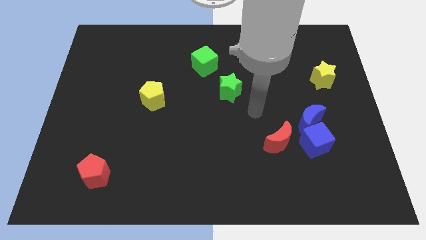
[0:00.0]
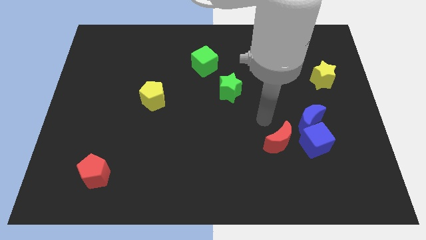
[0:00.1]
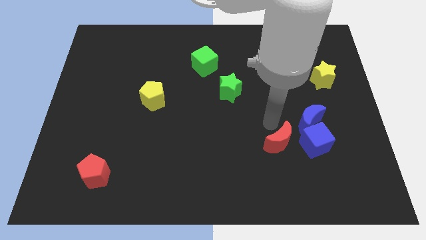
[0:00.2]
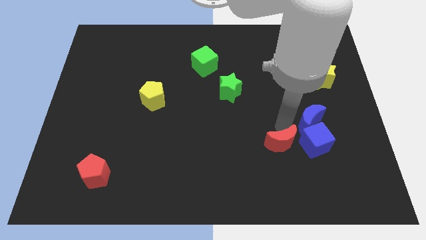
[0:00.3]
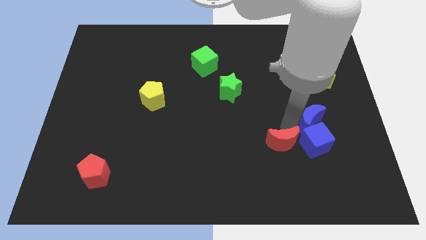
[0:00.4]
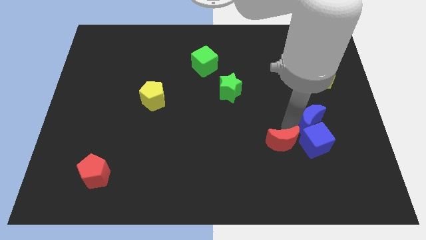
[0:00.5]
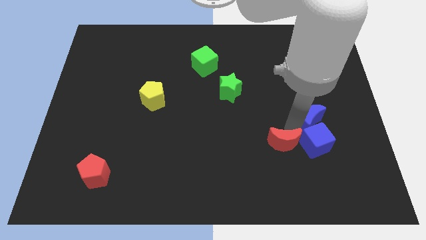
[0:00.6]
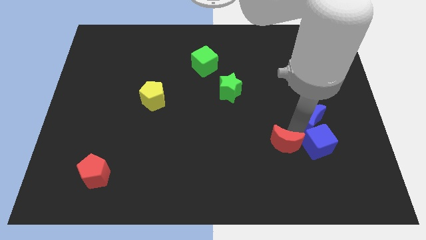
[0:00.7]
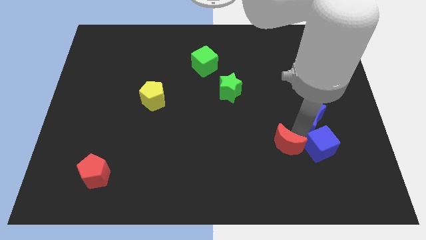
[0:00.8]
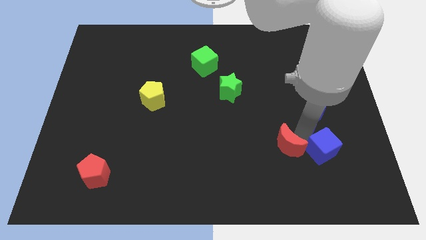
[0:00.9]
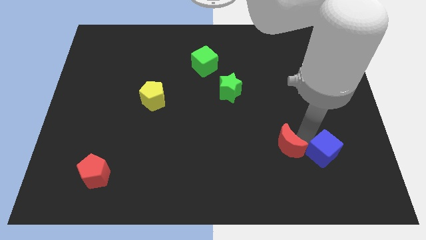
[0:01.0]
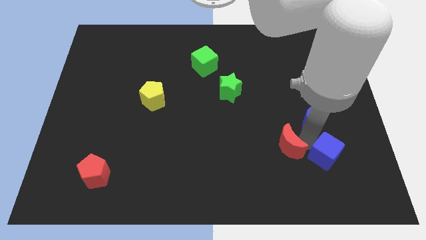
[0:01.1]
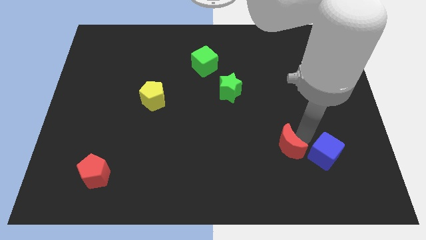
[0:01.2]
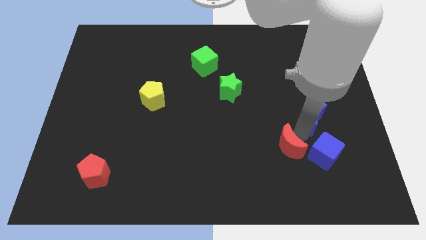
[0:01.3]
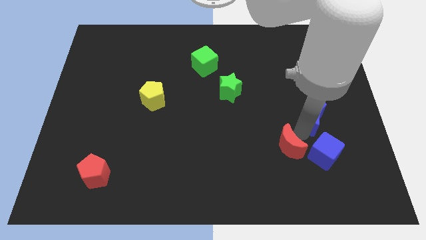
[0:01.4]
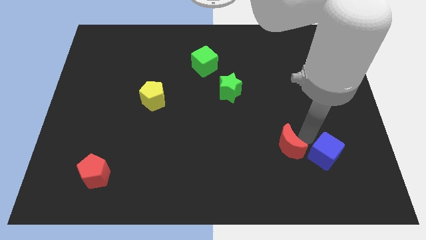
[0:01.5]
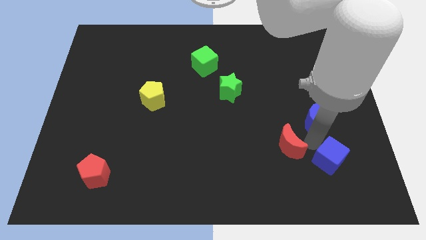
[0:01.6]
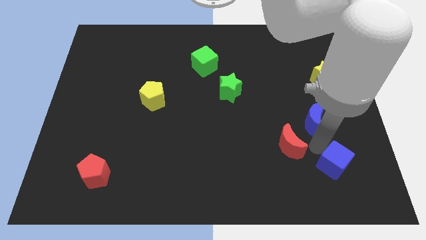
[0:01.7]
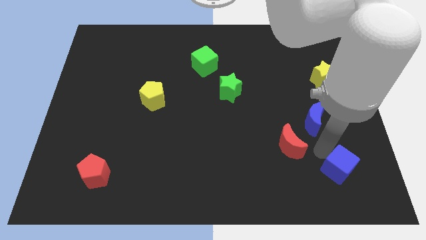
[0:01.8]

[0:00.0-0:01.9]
move the blue cube away from the blue moon and red moon

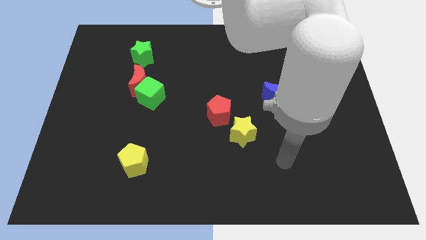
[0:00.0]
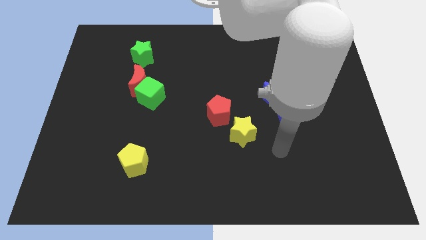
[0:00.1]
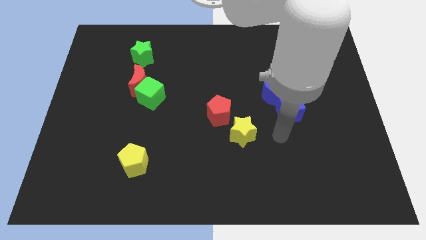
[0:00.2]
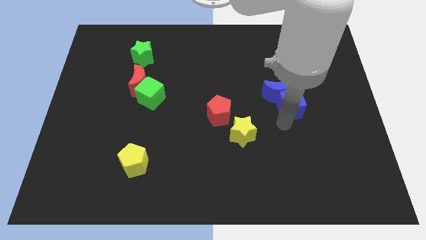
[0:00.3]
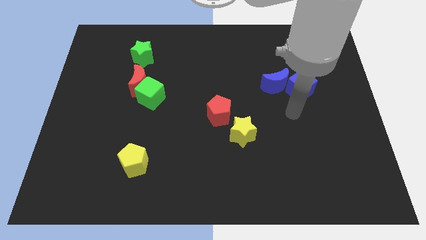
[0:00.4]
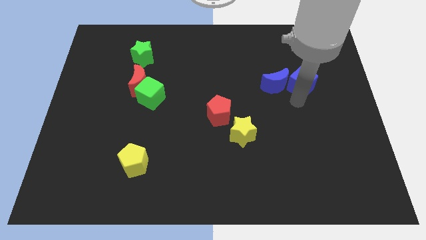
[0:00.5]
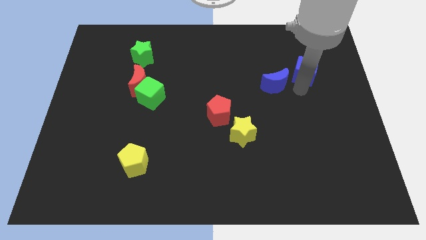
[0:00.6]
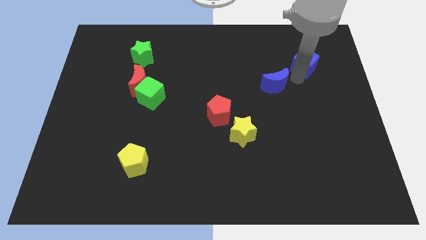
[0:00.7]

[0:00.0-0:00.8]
pull the blue moon apart from the blue cube

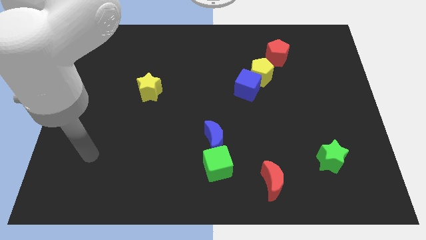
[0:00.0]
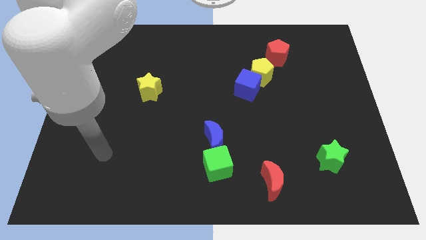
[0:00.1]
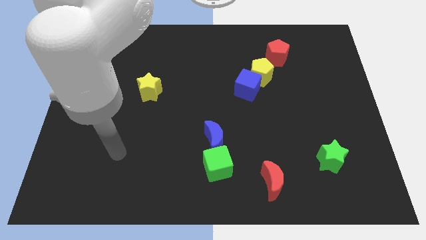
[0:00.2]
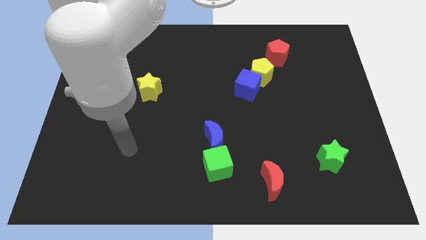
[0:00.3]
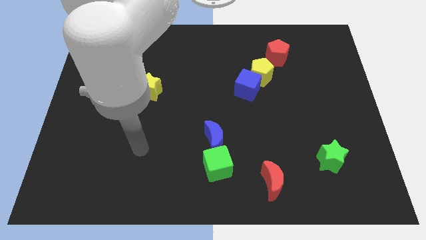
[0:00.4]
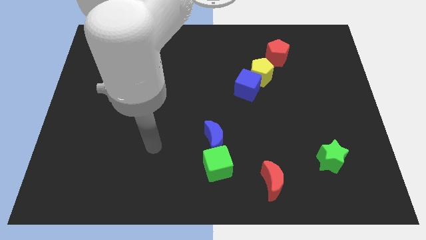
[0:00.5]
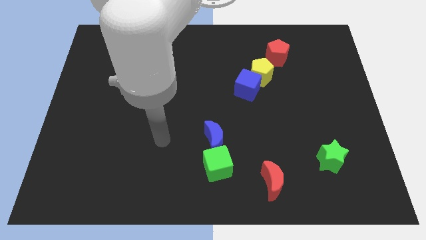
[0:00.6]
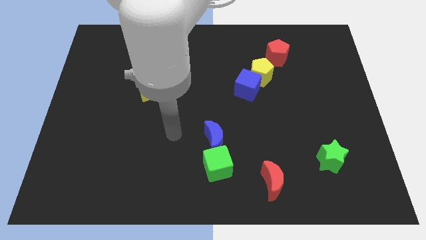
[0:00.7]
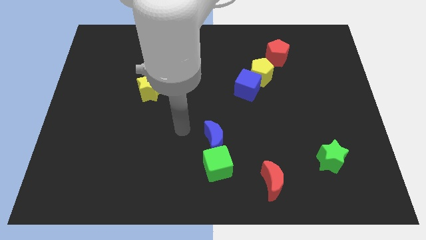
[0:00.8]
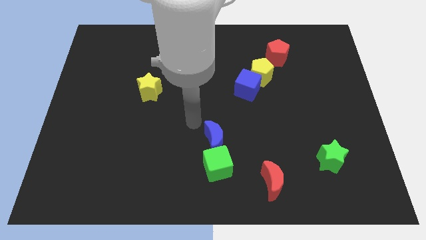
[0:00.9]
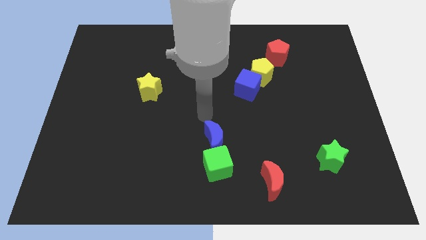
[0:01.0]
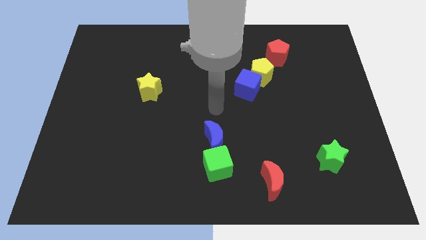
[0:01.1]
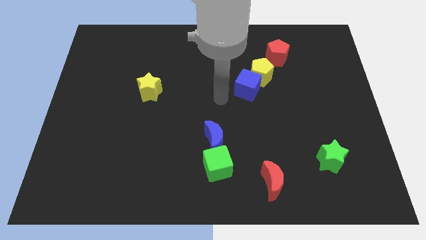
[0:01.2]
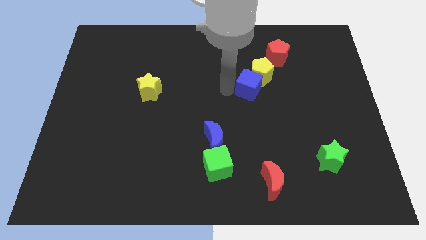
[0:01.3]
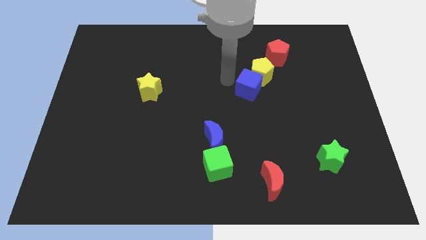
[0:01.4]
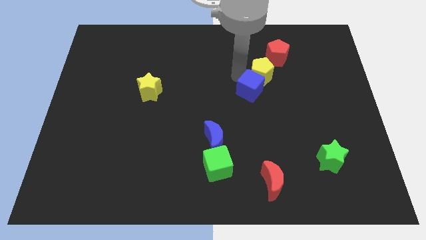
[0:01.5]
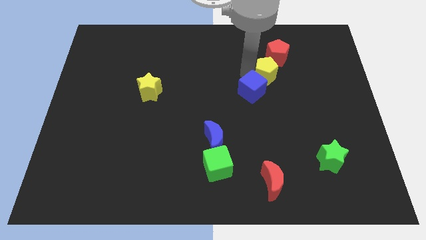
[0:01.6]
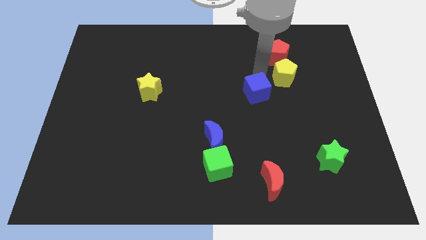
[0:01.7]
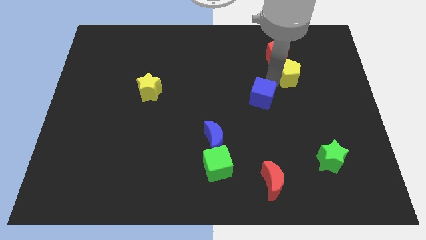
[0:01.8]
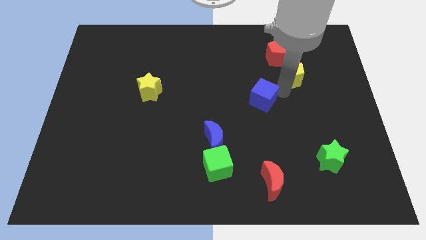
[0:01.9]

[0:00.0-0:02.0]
move the blue cube away from the yellow pentagon

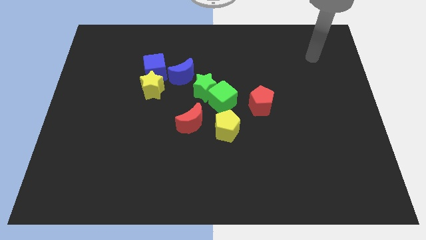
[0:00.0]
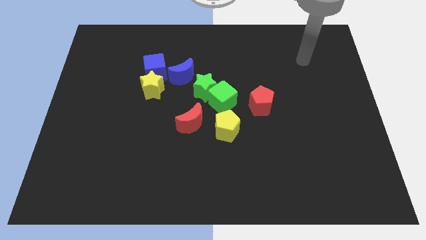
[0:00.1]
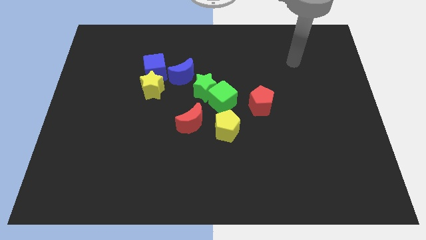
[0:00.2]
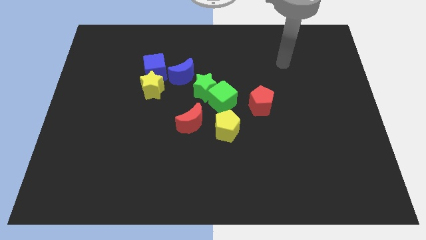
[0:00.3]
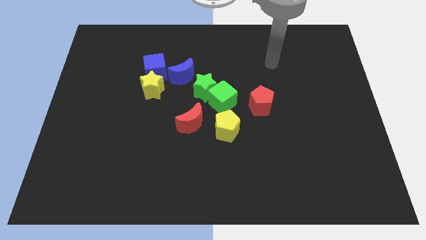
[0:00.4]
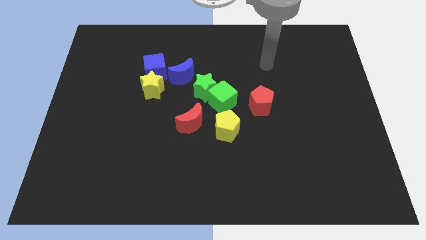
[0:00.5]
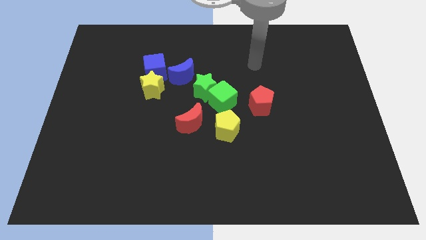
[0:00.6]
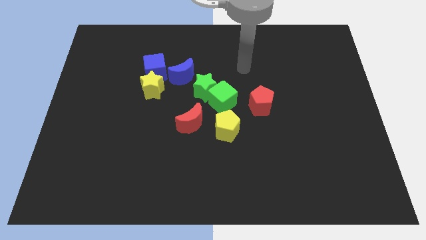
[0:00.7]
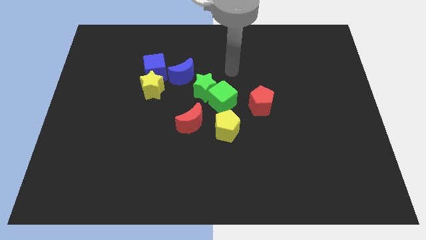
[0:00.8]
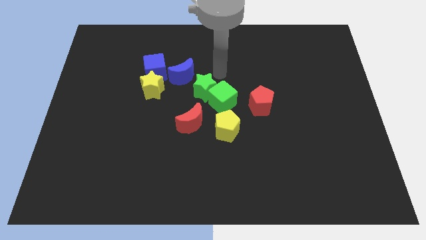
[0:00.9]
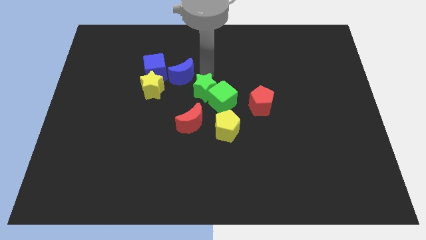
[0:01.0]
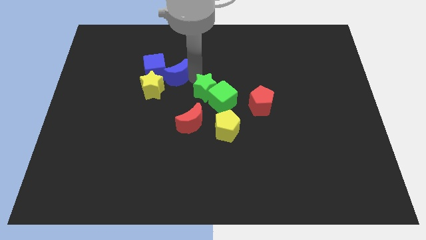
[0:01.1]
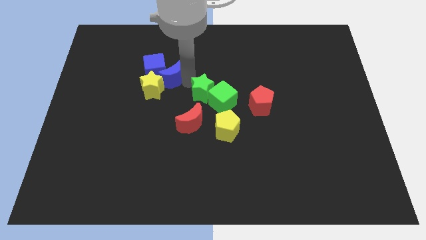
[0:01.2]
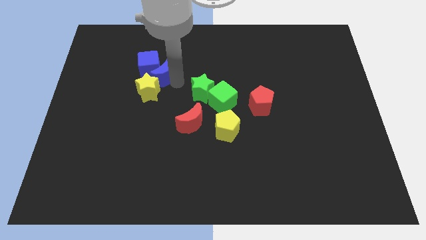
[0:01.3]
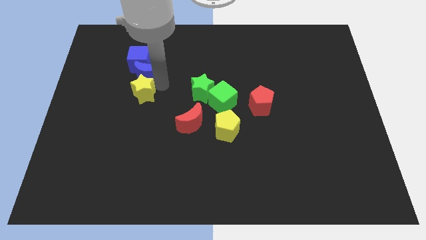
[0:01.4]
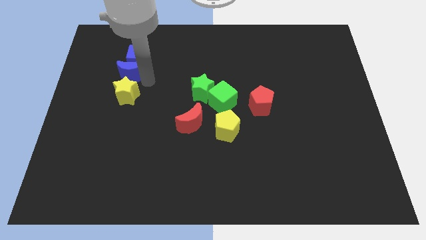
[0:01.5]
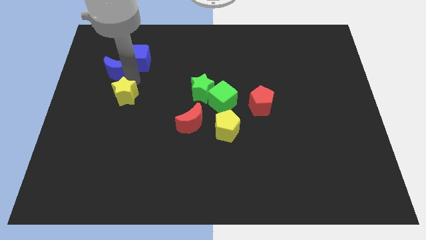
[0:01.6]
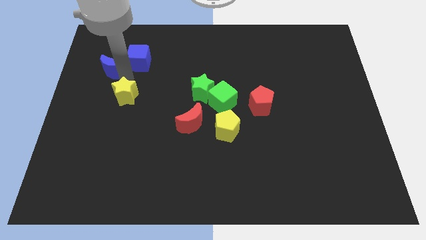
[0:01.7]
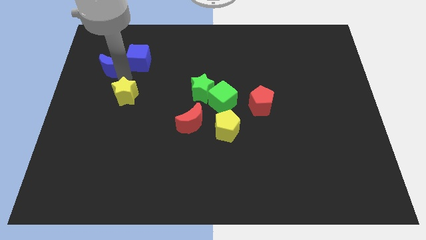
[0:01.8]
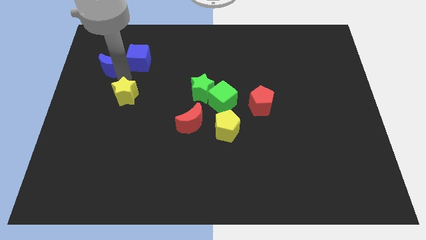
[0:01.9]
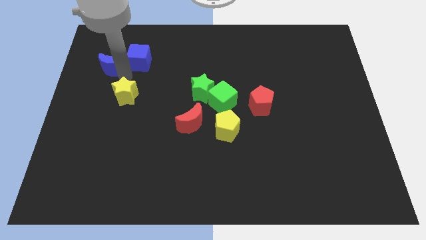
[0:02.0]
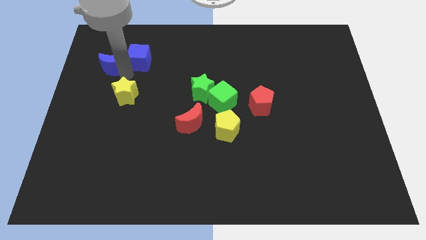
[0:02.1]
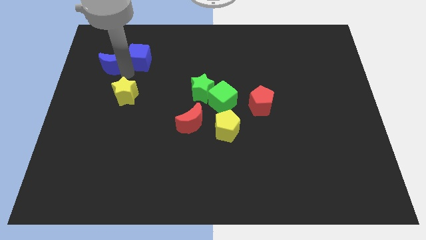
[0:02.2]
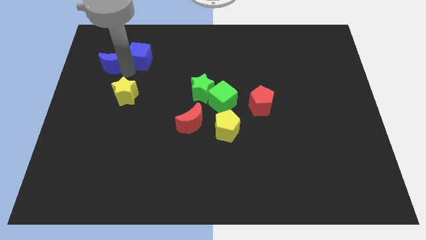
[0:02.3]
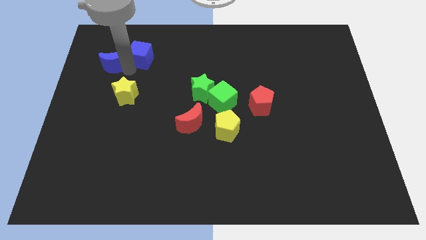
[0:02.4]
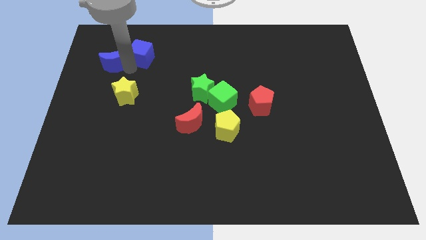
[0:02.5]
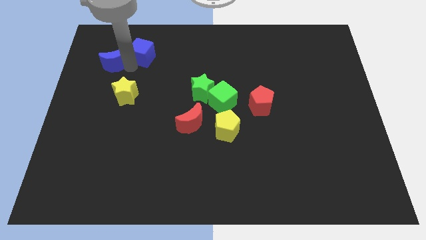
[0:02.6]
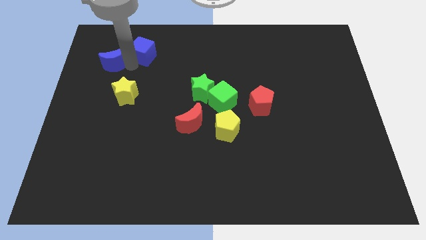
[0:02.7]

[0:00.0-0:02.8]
move the blue cube away from the yellow star and blue moon

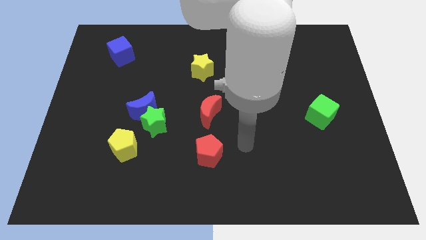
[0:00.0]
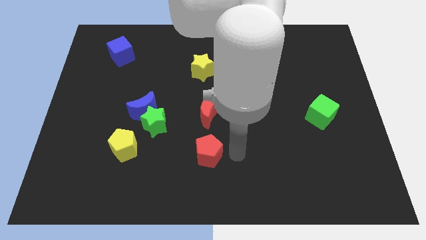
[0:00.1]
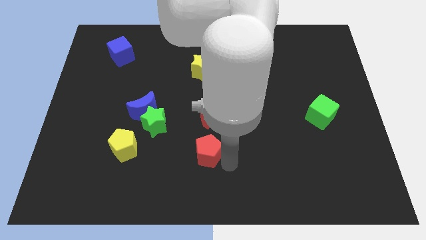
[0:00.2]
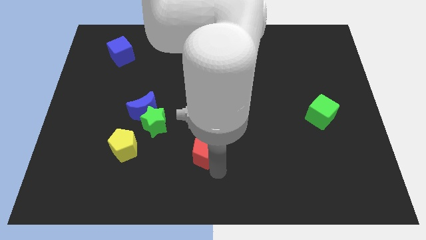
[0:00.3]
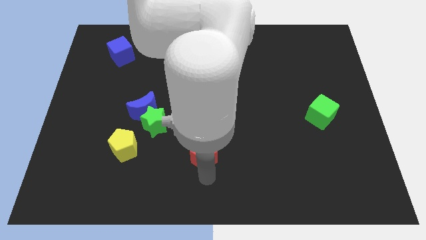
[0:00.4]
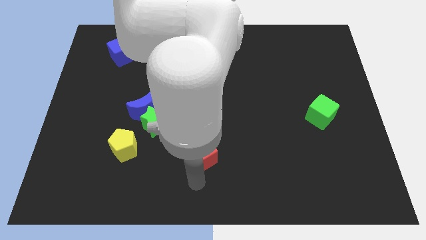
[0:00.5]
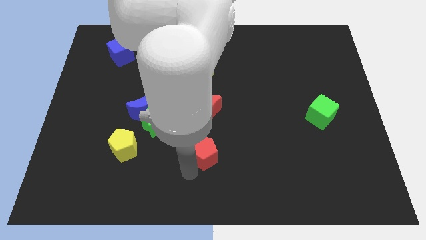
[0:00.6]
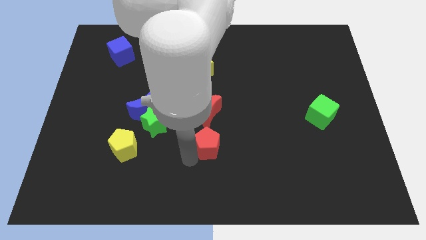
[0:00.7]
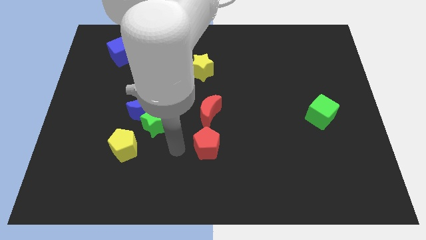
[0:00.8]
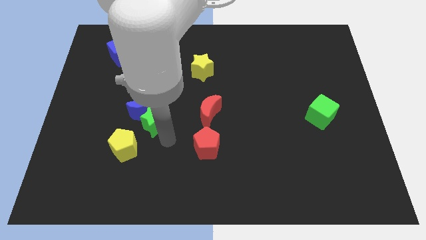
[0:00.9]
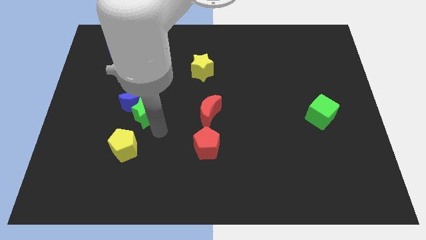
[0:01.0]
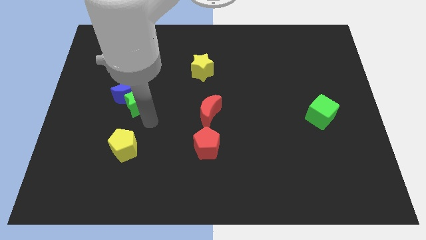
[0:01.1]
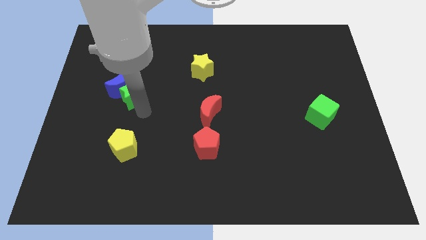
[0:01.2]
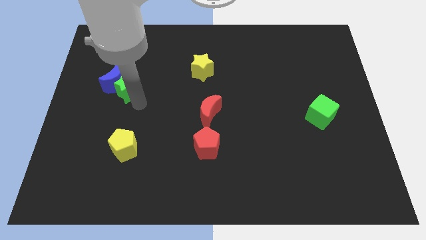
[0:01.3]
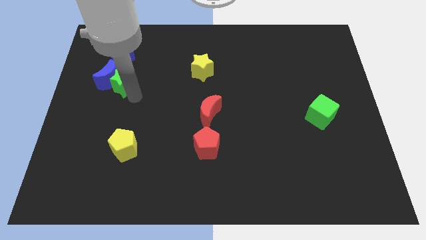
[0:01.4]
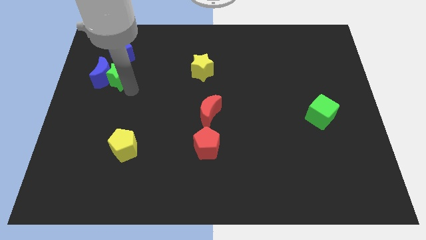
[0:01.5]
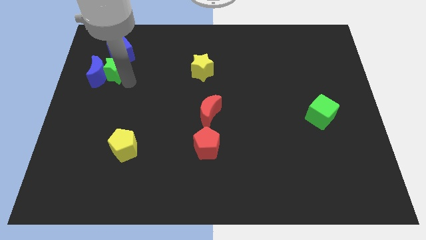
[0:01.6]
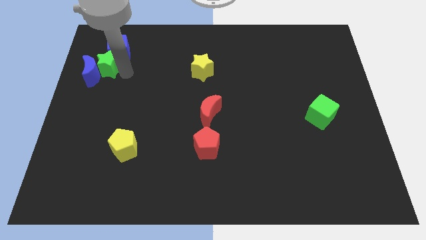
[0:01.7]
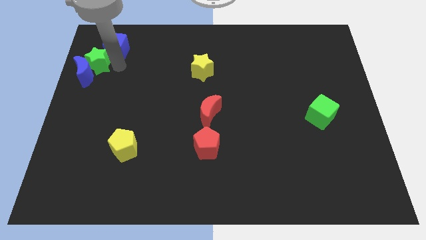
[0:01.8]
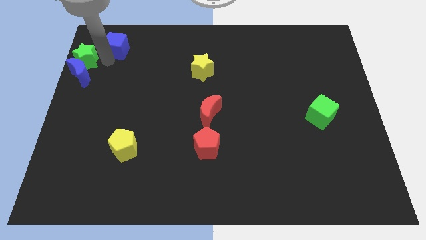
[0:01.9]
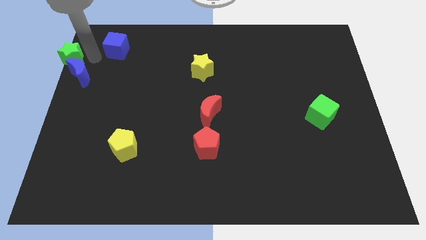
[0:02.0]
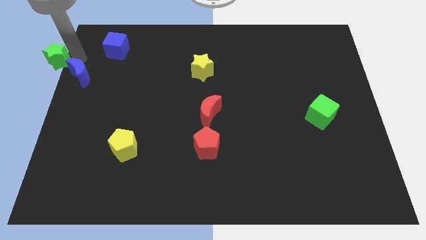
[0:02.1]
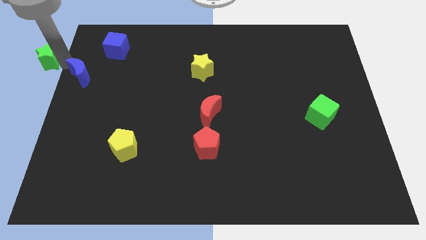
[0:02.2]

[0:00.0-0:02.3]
move the blue moon away from the green star
